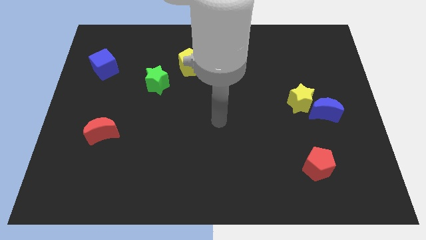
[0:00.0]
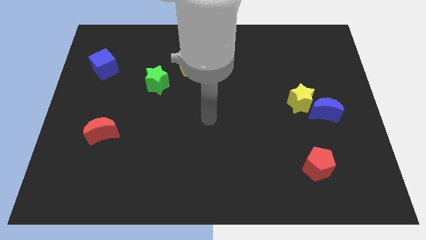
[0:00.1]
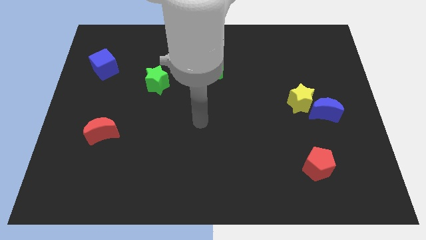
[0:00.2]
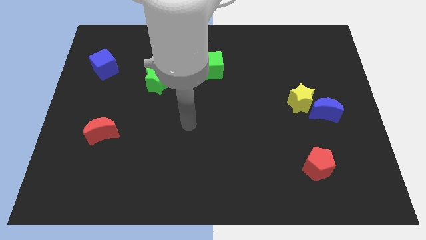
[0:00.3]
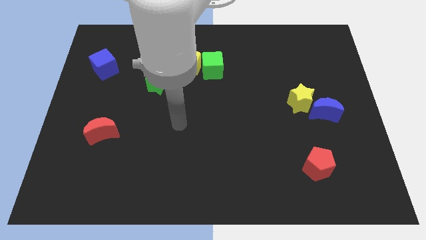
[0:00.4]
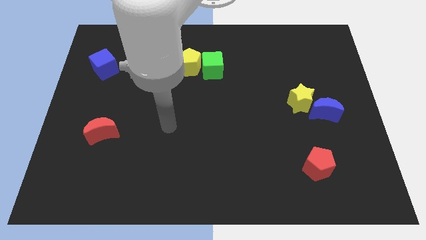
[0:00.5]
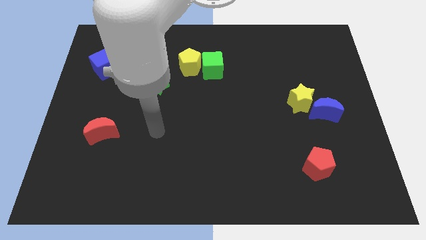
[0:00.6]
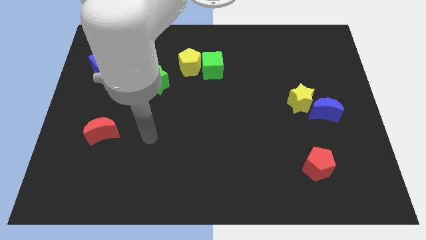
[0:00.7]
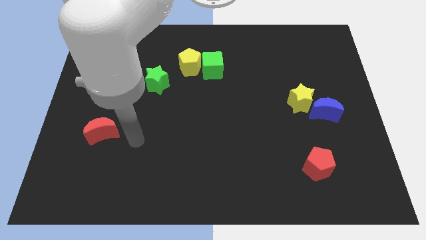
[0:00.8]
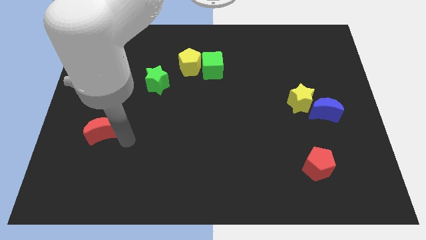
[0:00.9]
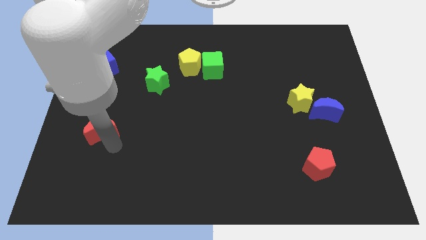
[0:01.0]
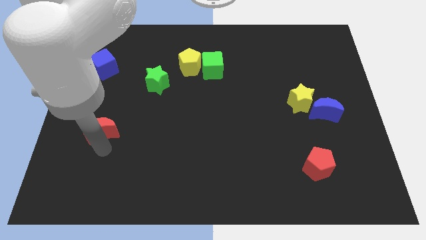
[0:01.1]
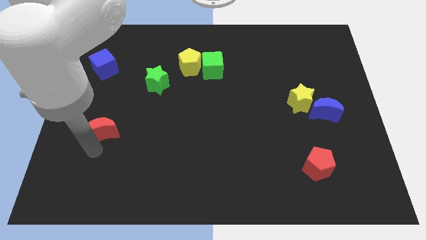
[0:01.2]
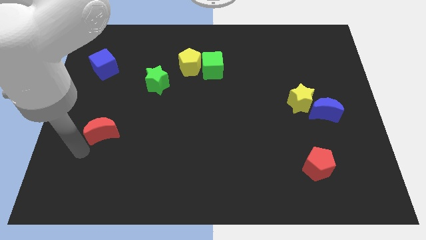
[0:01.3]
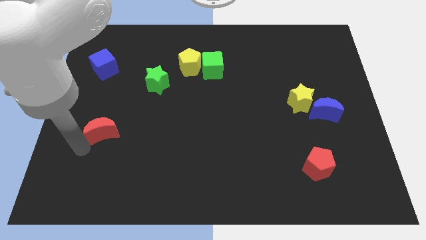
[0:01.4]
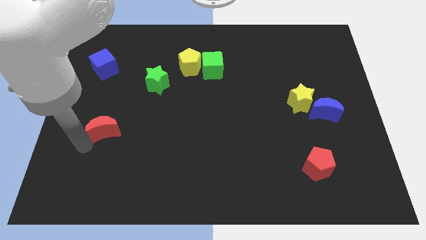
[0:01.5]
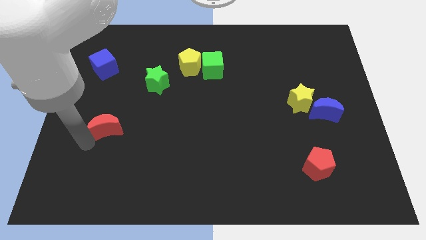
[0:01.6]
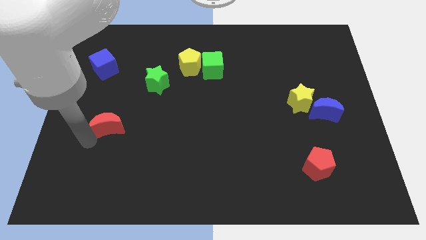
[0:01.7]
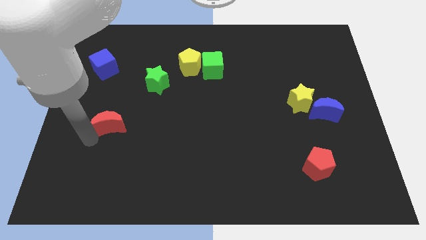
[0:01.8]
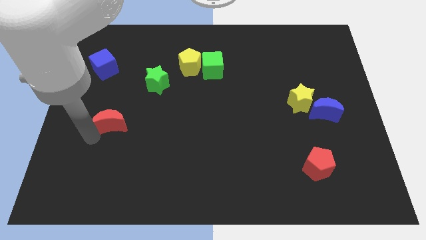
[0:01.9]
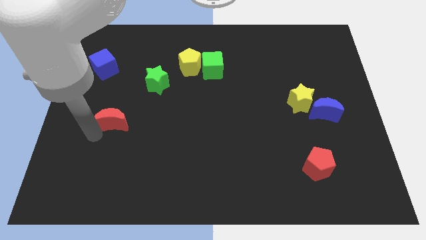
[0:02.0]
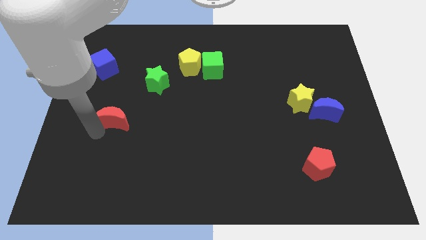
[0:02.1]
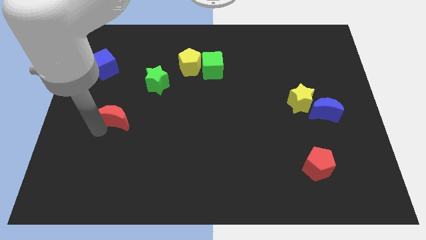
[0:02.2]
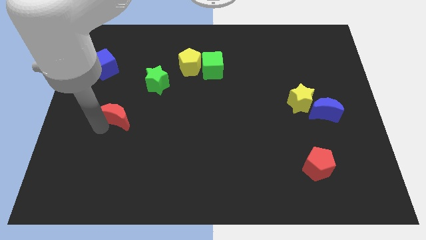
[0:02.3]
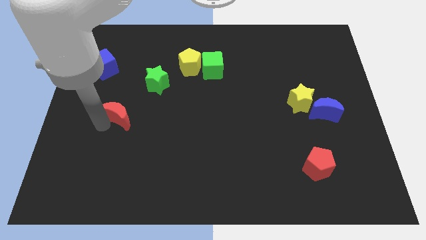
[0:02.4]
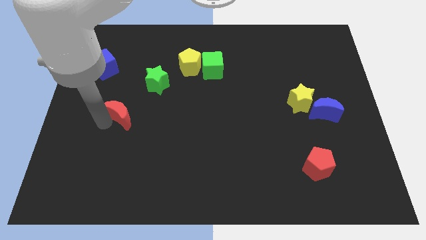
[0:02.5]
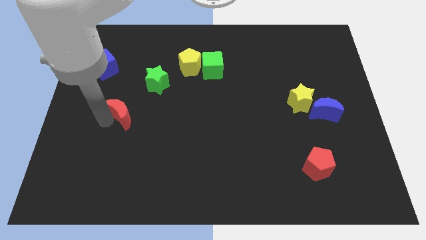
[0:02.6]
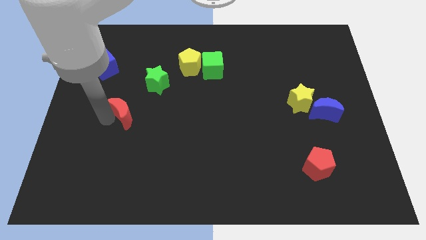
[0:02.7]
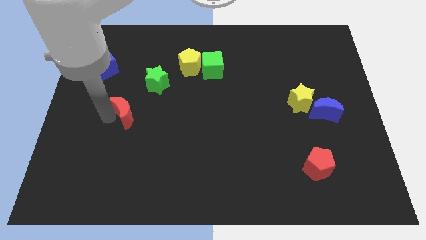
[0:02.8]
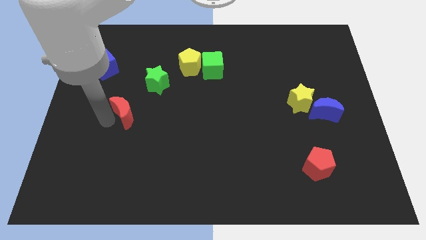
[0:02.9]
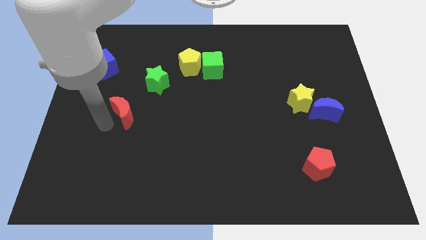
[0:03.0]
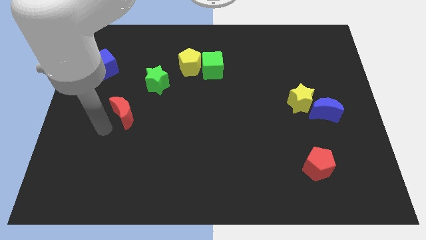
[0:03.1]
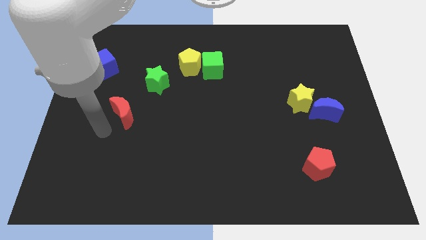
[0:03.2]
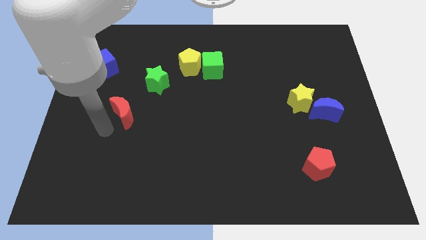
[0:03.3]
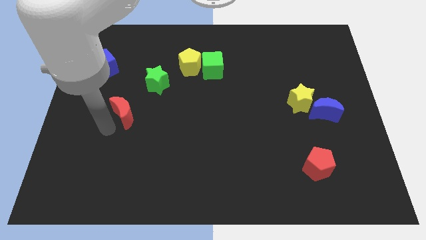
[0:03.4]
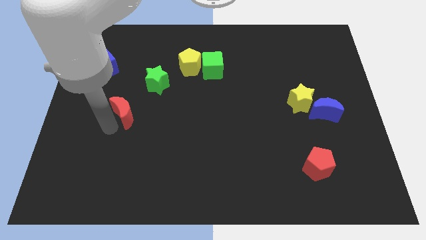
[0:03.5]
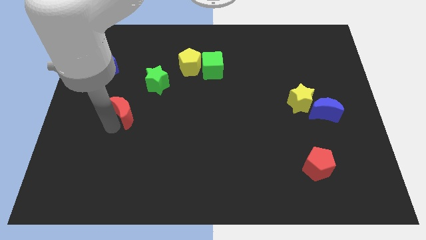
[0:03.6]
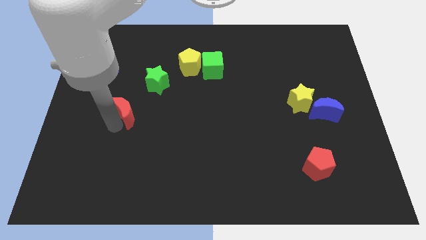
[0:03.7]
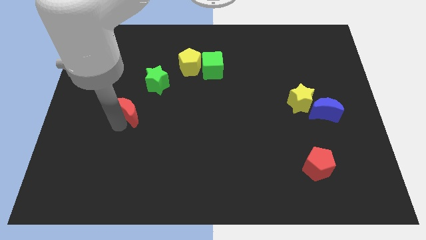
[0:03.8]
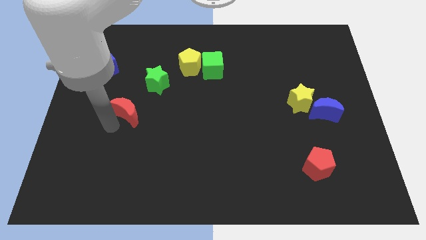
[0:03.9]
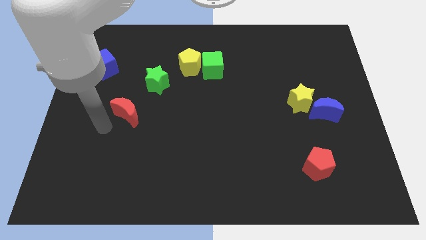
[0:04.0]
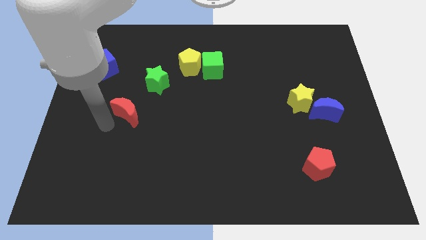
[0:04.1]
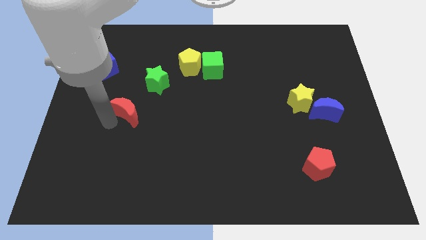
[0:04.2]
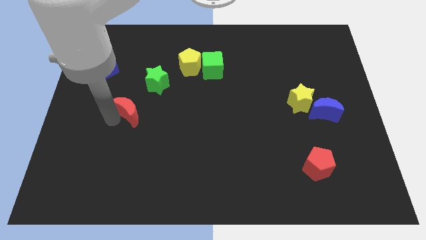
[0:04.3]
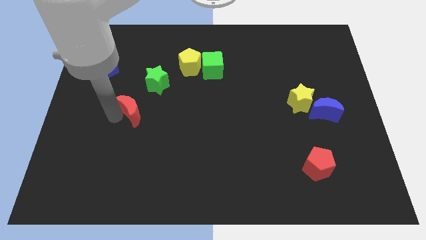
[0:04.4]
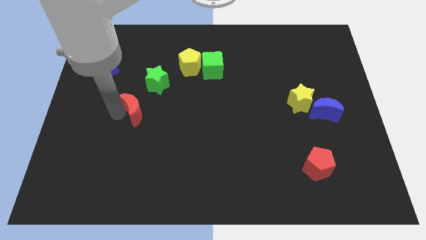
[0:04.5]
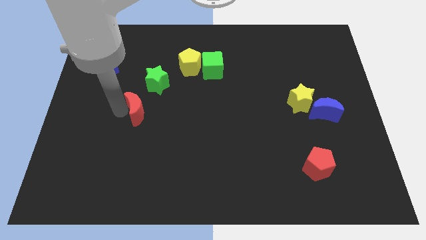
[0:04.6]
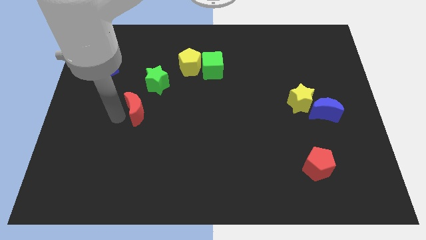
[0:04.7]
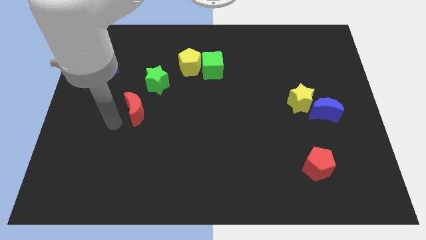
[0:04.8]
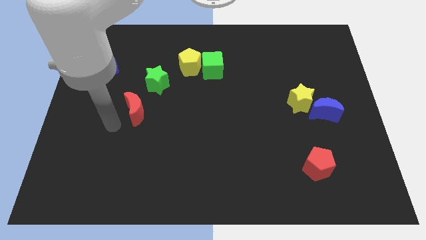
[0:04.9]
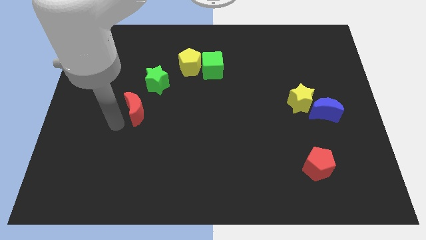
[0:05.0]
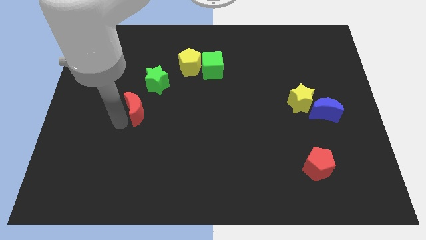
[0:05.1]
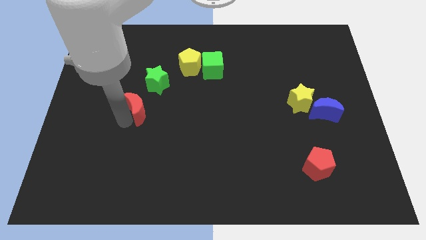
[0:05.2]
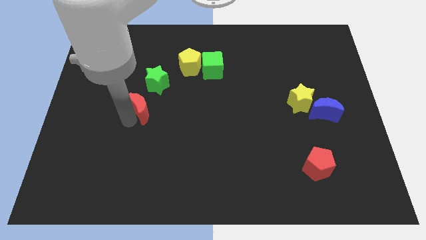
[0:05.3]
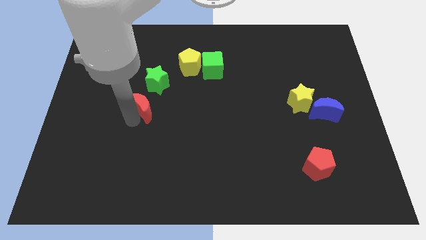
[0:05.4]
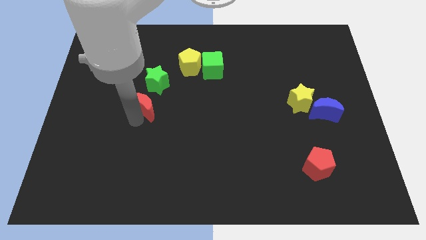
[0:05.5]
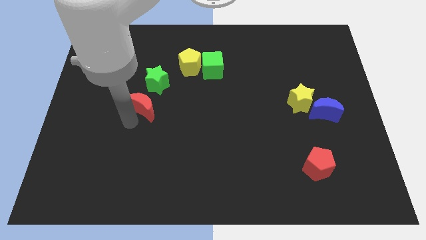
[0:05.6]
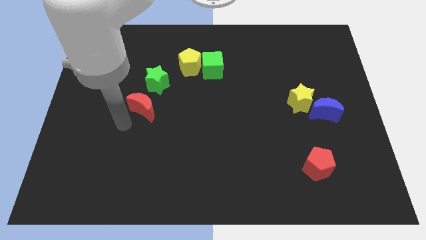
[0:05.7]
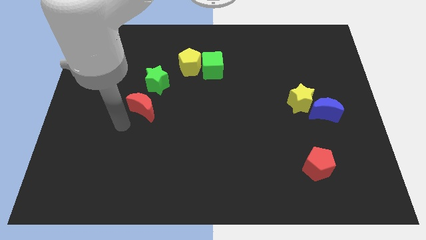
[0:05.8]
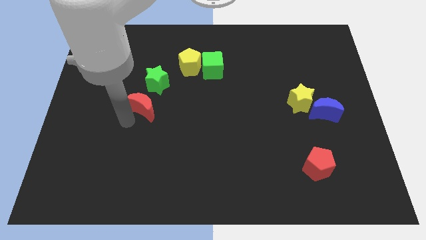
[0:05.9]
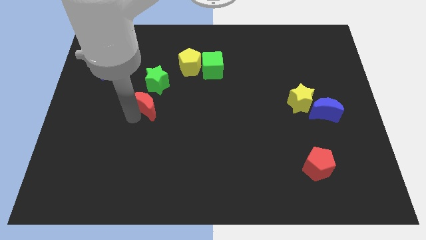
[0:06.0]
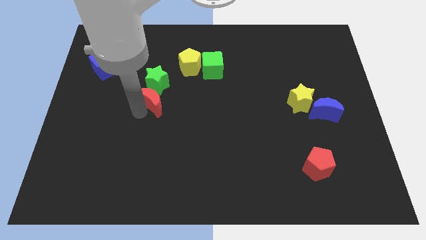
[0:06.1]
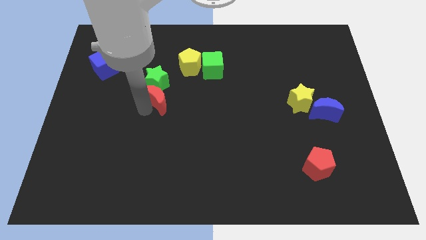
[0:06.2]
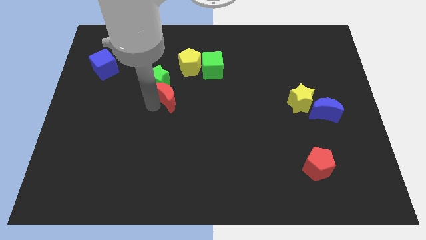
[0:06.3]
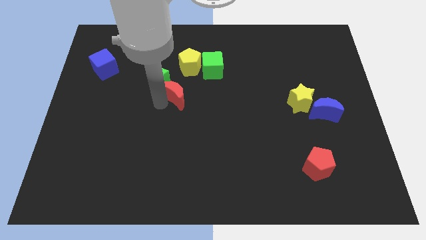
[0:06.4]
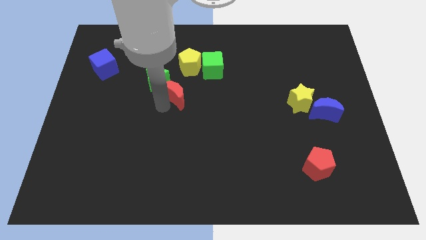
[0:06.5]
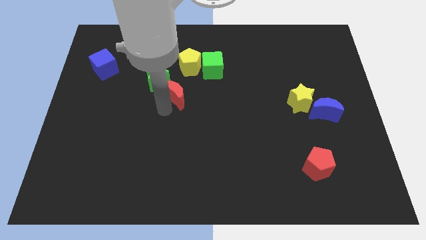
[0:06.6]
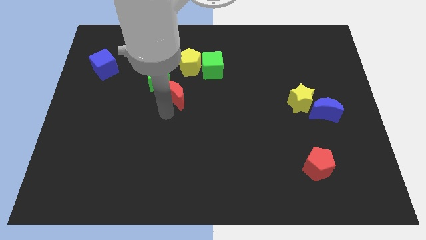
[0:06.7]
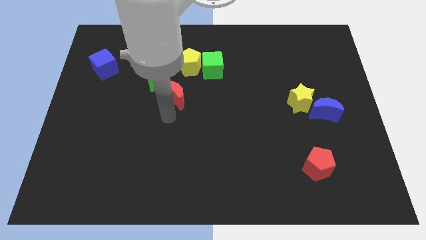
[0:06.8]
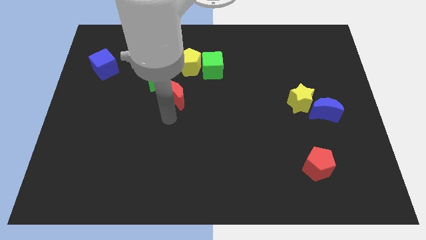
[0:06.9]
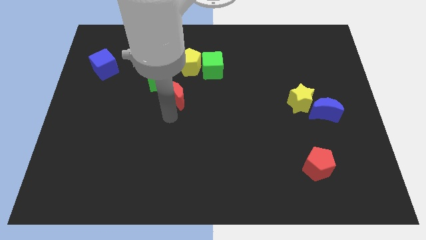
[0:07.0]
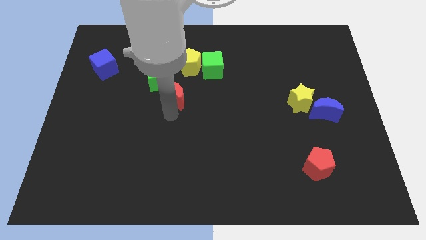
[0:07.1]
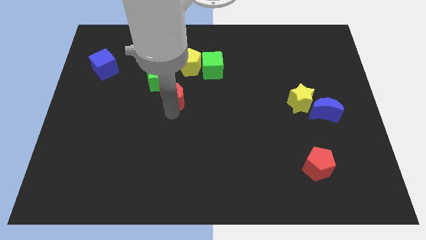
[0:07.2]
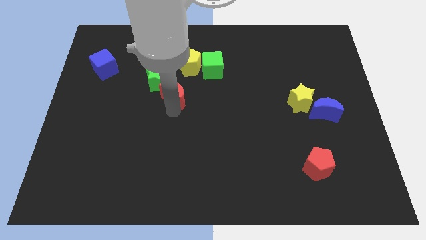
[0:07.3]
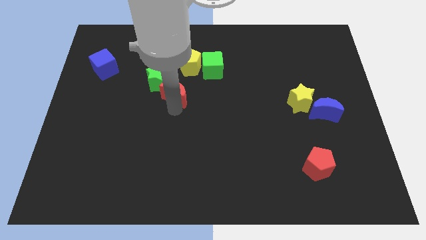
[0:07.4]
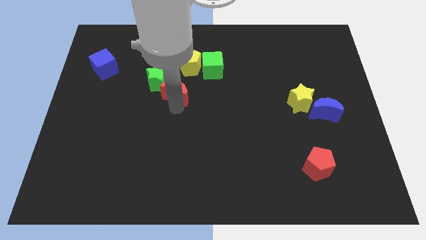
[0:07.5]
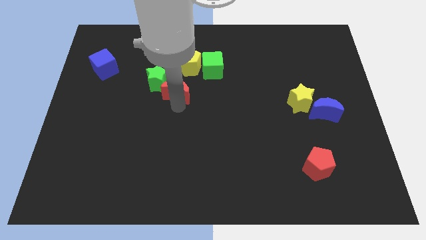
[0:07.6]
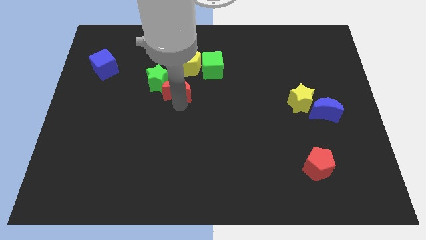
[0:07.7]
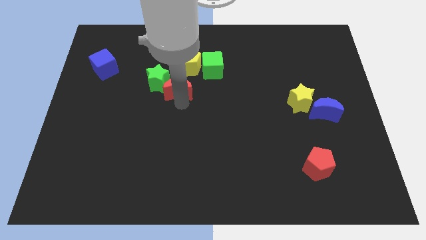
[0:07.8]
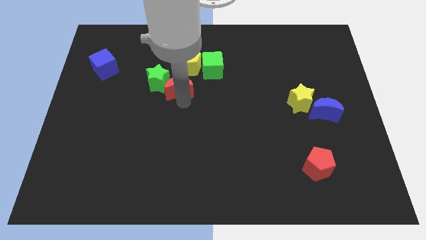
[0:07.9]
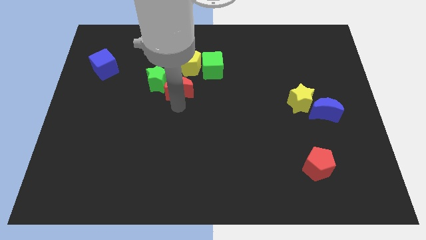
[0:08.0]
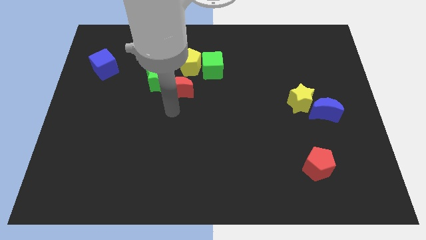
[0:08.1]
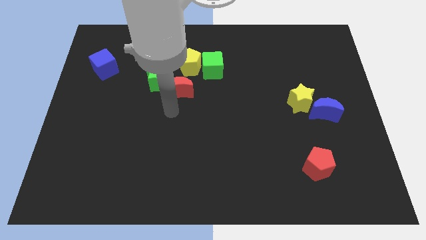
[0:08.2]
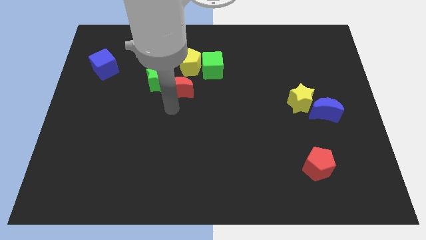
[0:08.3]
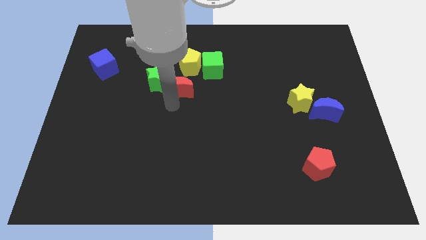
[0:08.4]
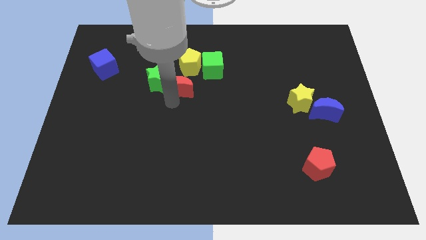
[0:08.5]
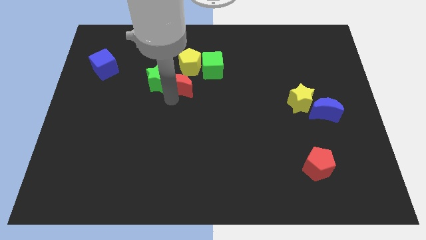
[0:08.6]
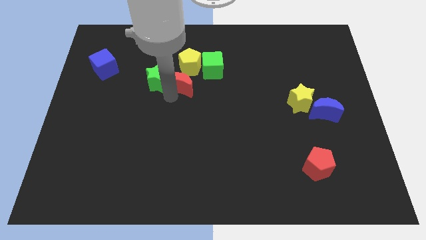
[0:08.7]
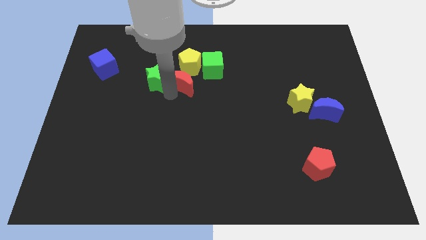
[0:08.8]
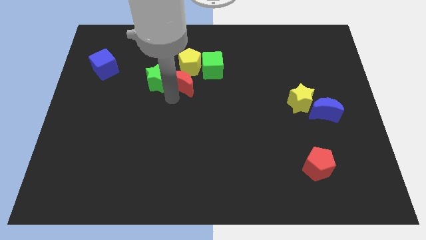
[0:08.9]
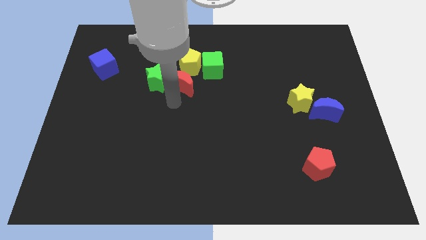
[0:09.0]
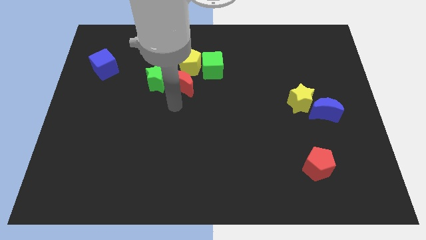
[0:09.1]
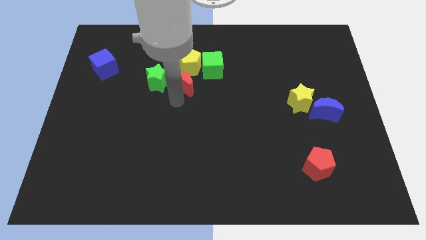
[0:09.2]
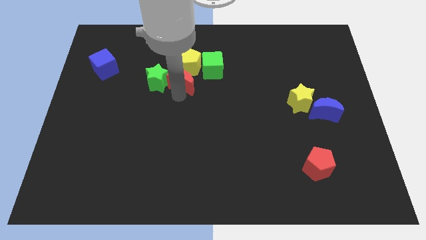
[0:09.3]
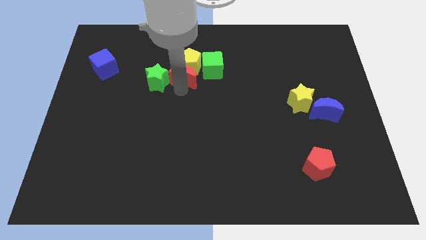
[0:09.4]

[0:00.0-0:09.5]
push the red moon towards the yellow pentagon
